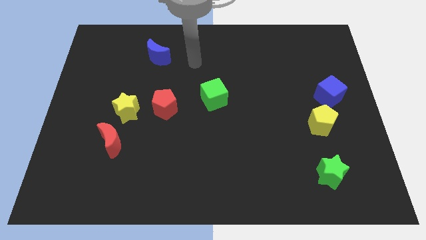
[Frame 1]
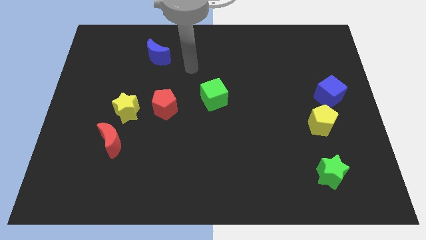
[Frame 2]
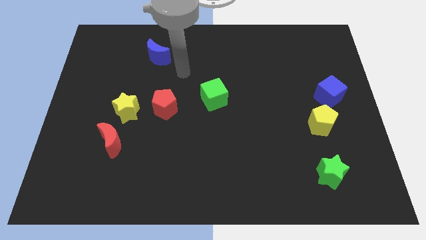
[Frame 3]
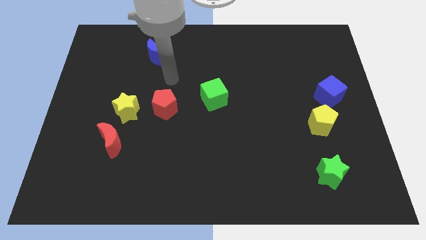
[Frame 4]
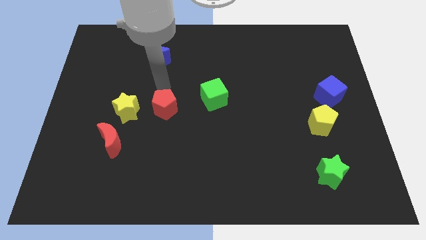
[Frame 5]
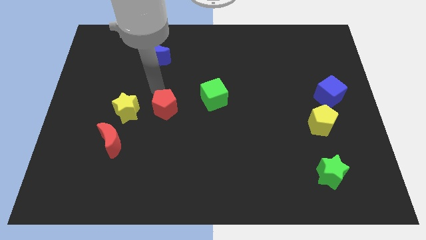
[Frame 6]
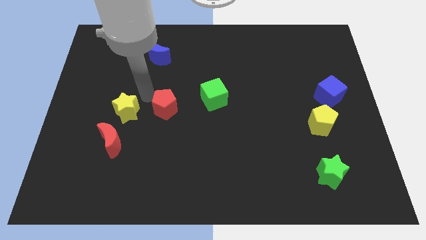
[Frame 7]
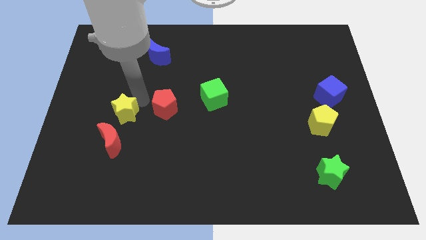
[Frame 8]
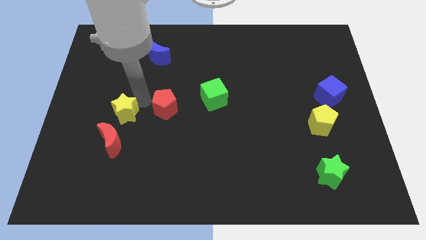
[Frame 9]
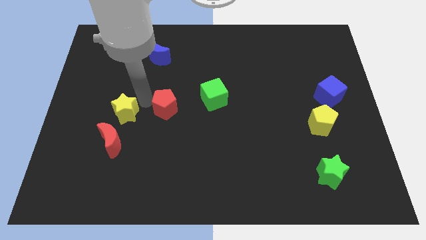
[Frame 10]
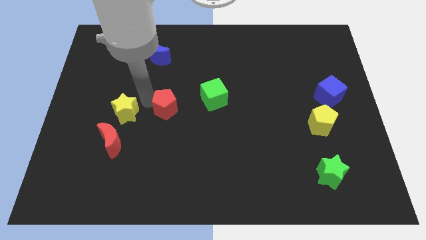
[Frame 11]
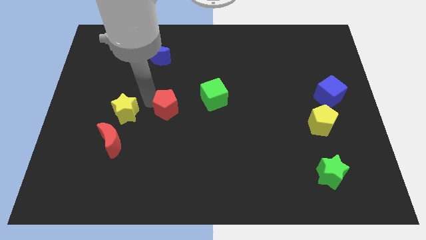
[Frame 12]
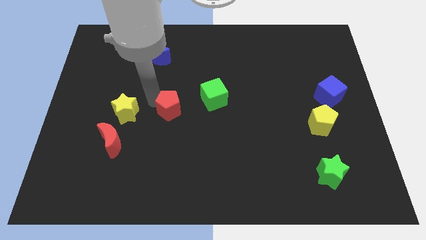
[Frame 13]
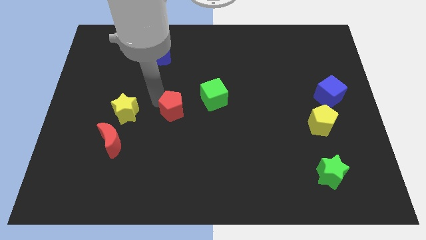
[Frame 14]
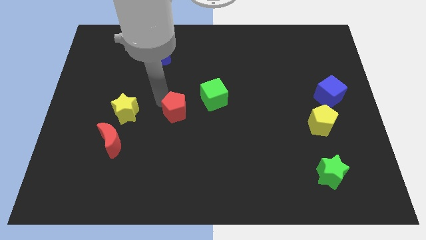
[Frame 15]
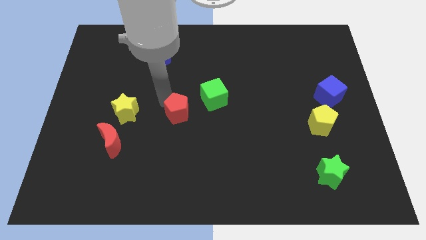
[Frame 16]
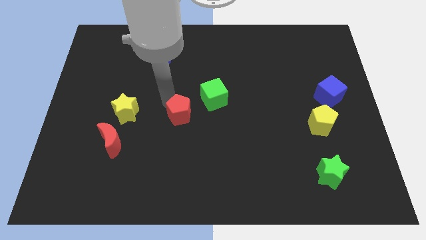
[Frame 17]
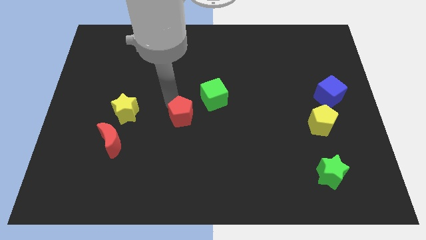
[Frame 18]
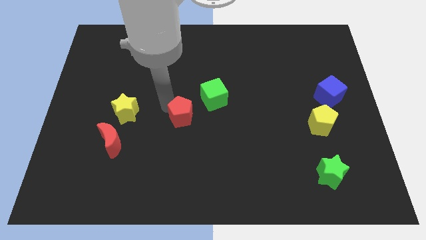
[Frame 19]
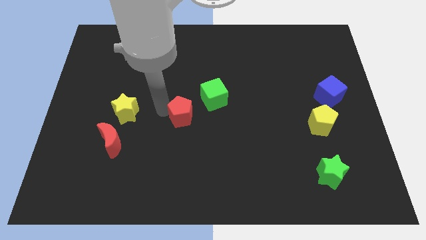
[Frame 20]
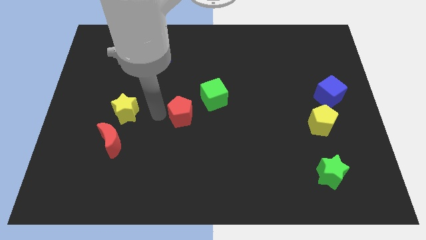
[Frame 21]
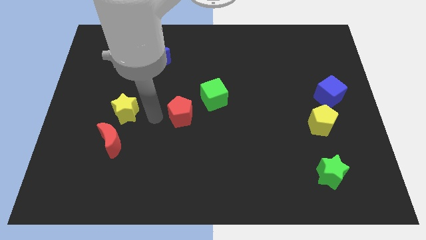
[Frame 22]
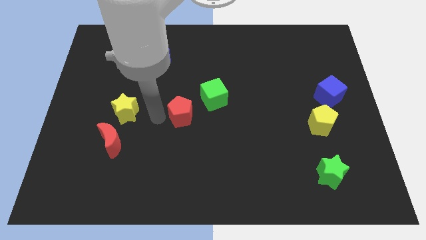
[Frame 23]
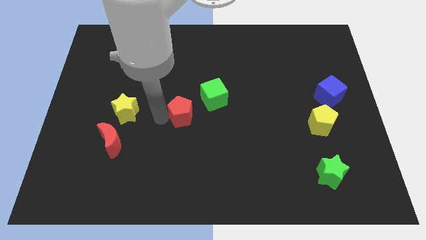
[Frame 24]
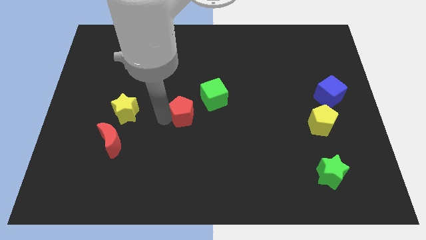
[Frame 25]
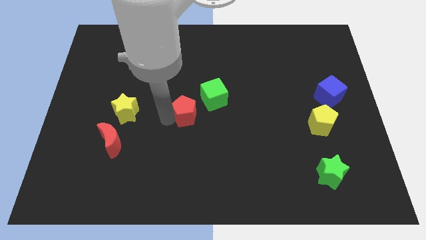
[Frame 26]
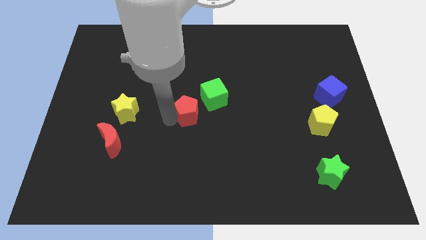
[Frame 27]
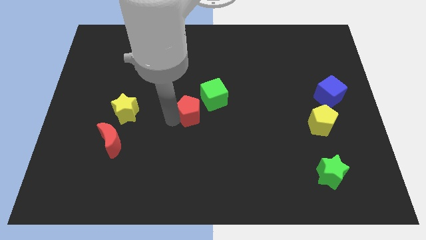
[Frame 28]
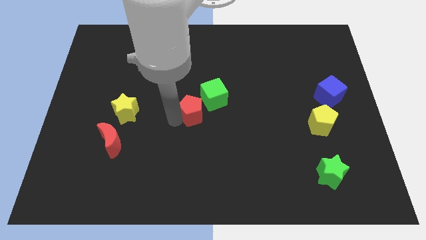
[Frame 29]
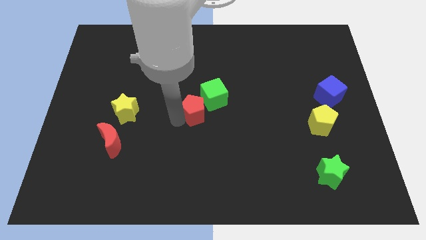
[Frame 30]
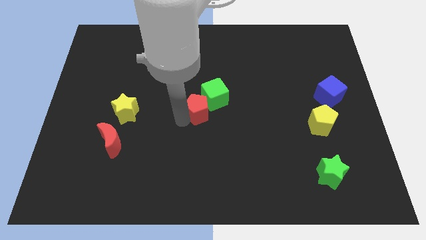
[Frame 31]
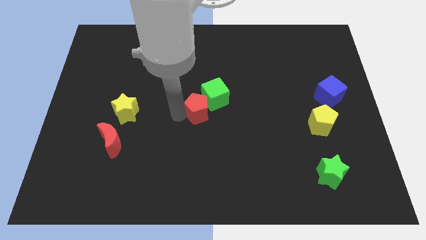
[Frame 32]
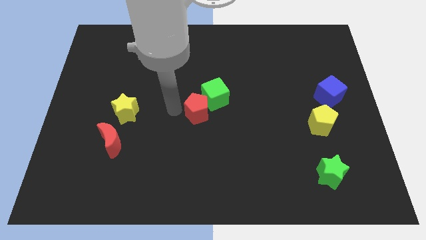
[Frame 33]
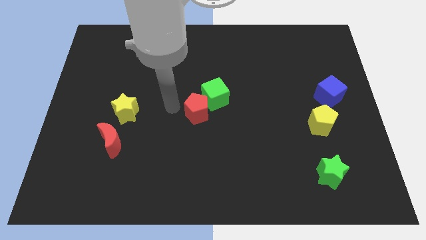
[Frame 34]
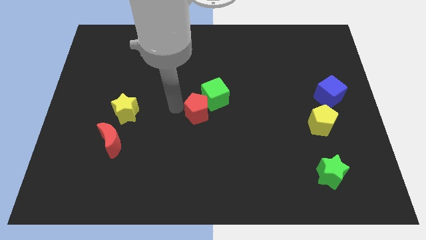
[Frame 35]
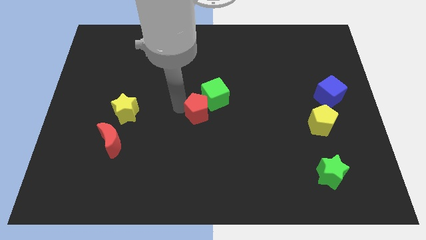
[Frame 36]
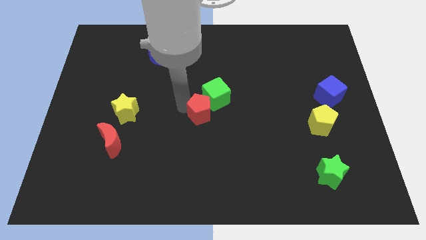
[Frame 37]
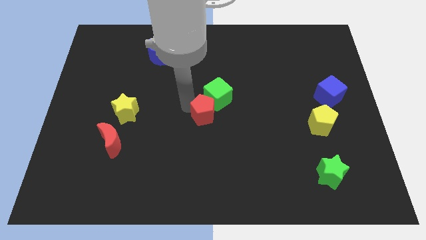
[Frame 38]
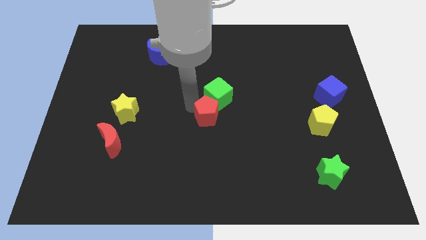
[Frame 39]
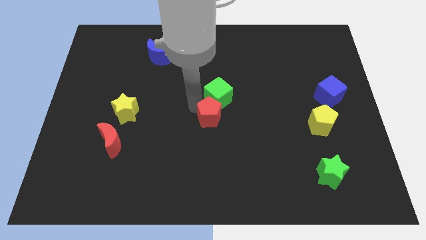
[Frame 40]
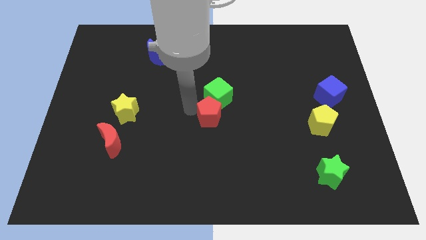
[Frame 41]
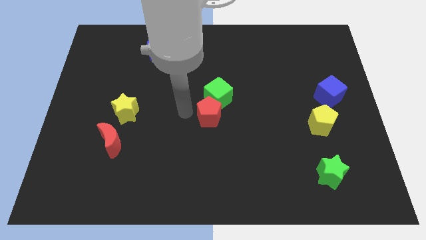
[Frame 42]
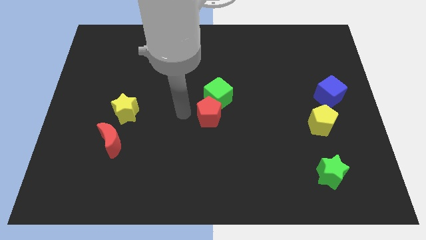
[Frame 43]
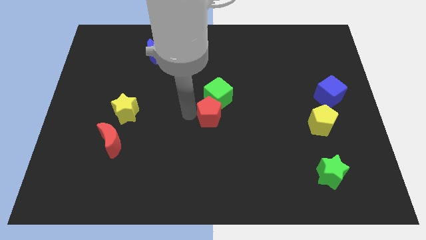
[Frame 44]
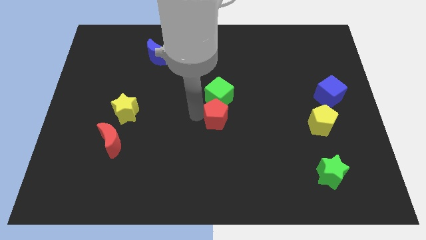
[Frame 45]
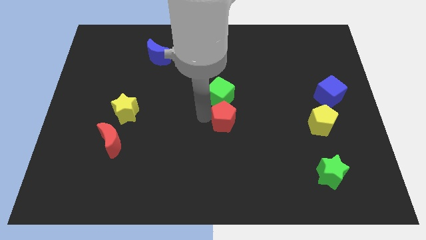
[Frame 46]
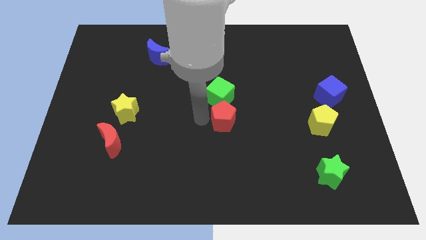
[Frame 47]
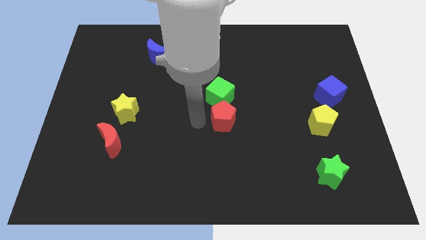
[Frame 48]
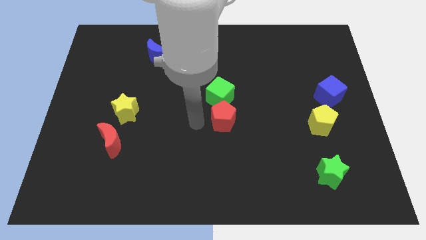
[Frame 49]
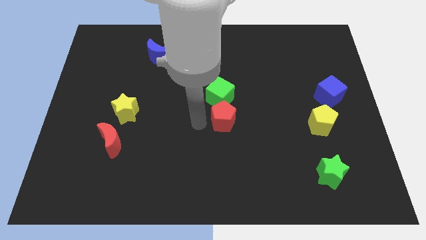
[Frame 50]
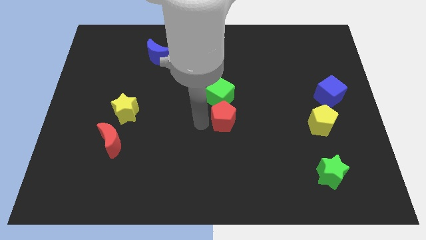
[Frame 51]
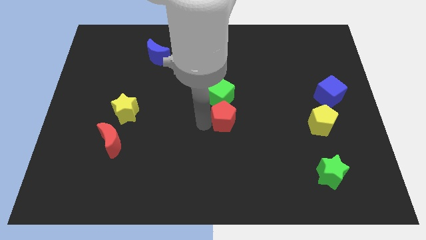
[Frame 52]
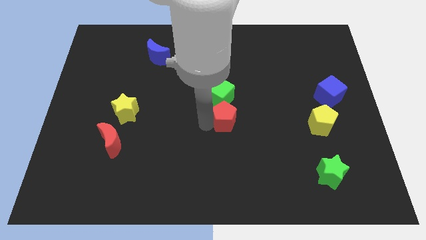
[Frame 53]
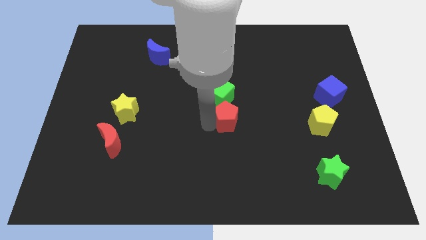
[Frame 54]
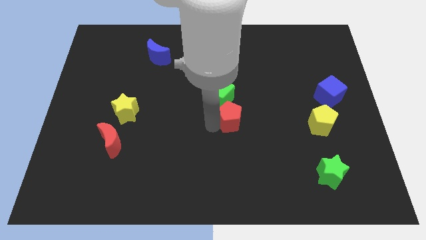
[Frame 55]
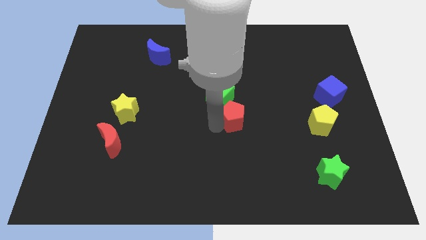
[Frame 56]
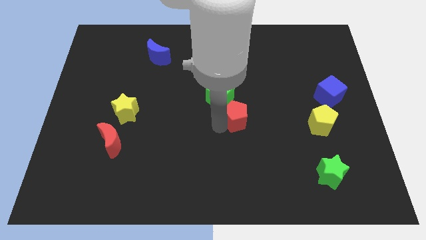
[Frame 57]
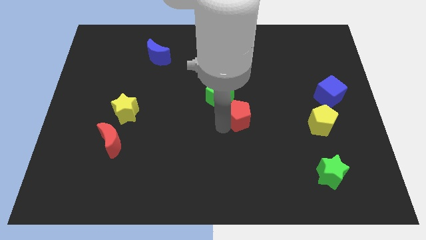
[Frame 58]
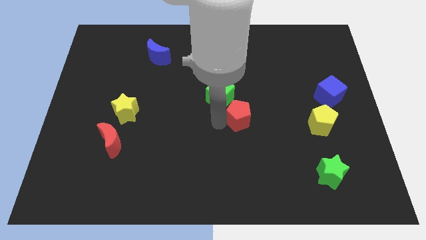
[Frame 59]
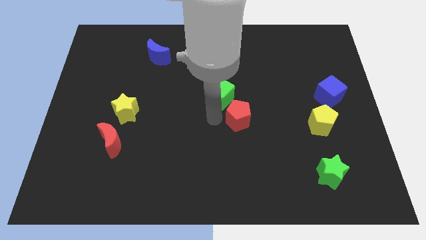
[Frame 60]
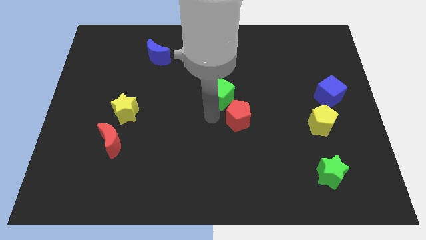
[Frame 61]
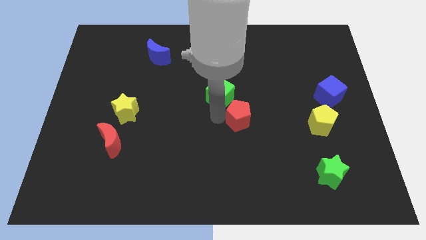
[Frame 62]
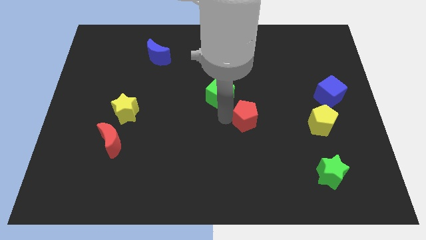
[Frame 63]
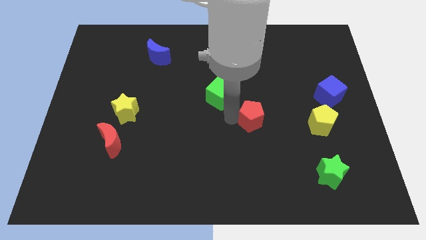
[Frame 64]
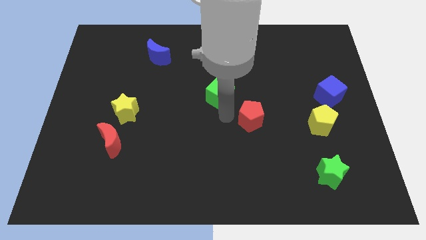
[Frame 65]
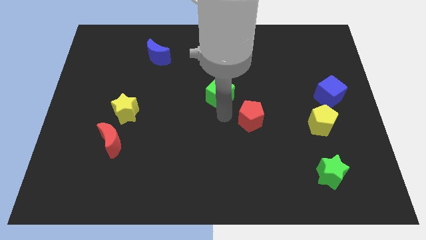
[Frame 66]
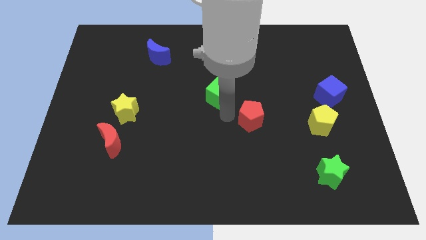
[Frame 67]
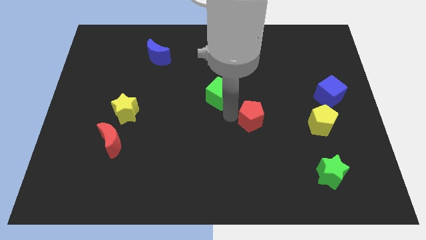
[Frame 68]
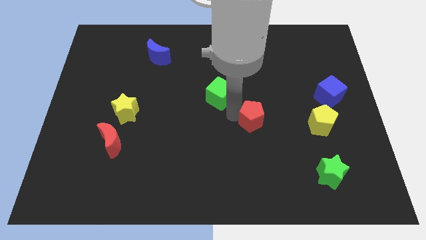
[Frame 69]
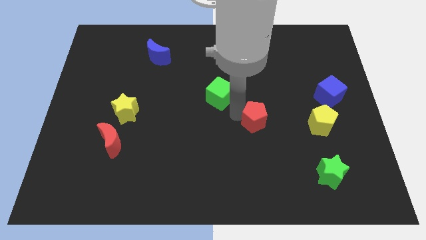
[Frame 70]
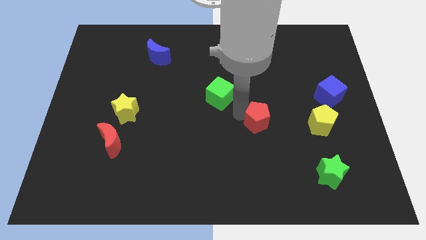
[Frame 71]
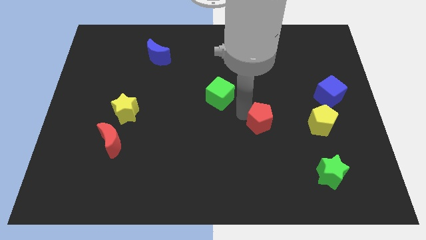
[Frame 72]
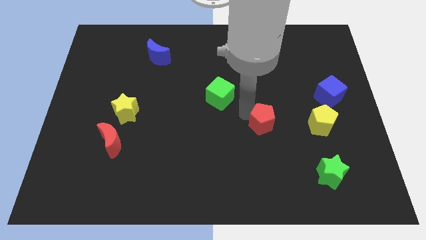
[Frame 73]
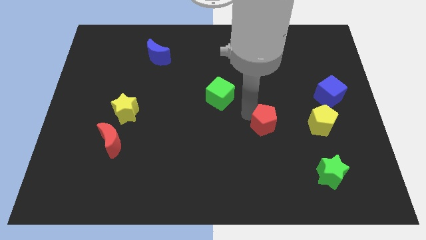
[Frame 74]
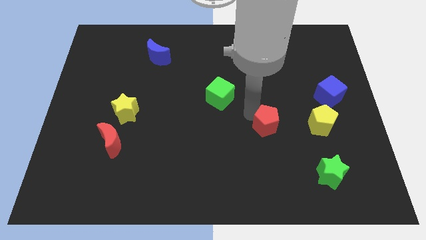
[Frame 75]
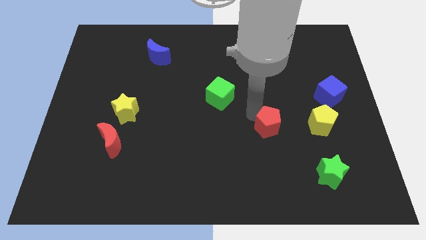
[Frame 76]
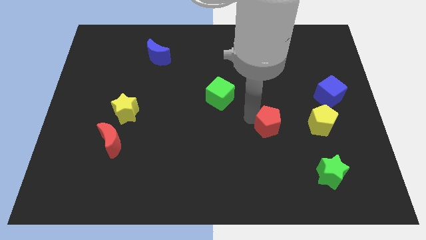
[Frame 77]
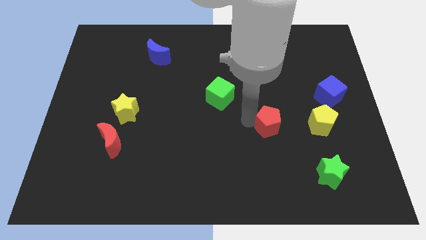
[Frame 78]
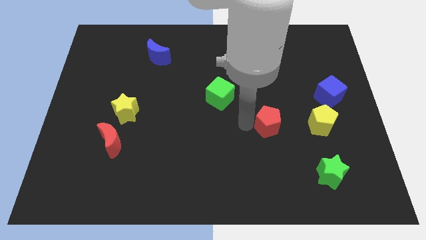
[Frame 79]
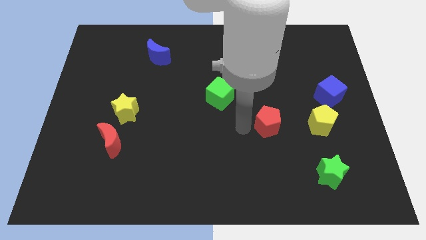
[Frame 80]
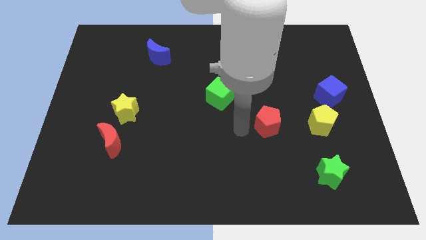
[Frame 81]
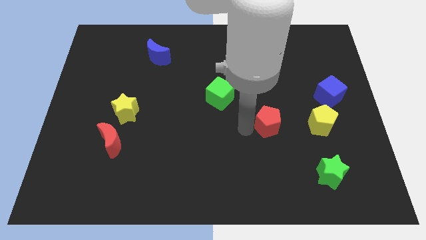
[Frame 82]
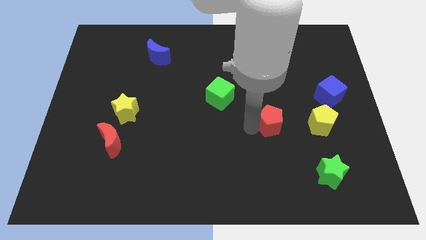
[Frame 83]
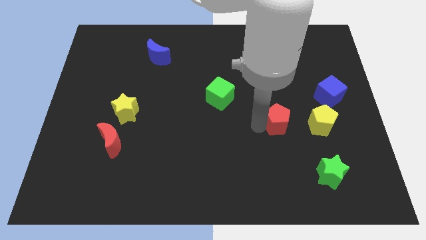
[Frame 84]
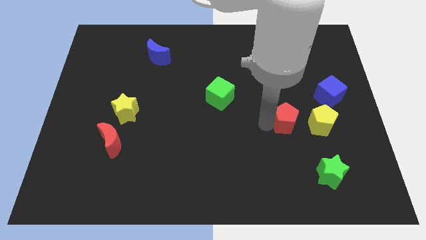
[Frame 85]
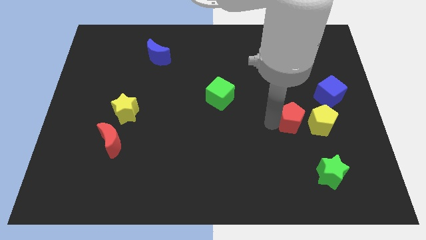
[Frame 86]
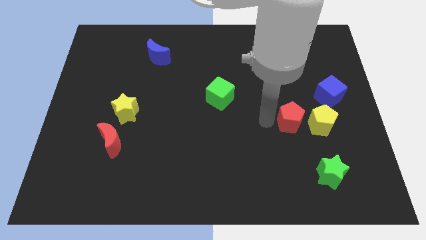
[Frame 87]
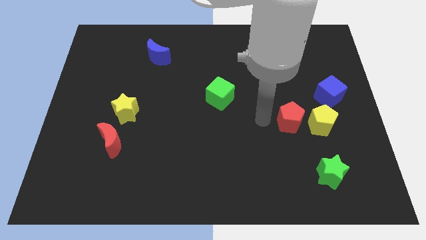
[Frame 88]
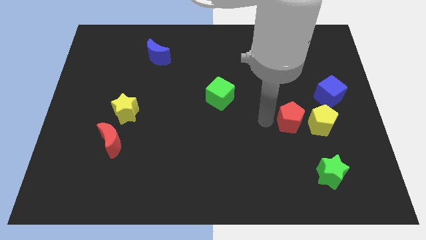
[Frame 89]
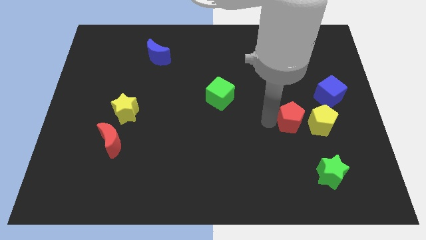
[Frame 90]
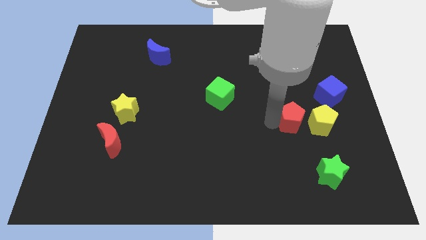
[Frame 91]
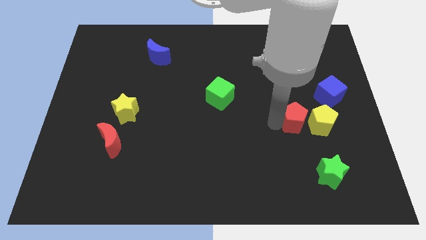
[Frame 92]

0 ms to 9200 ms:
move the red pentagon to the yellow pentagon
